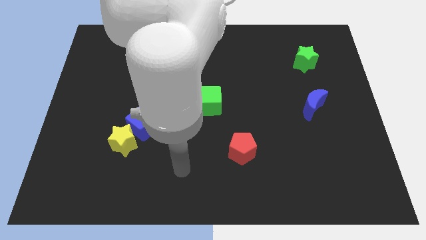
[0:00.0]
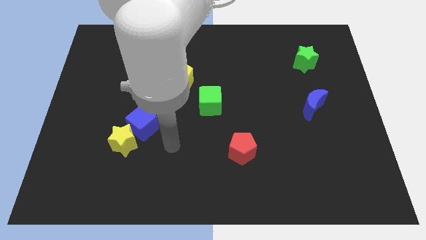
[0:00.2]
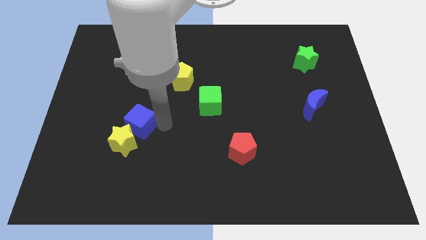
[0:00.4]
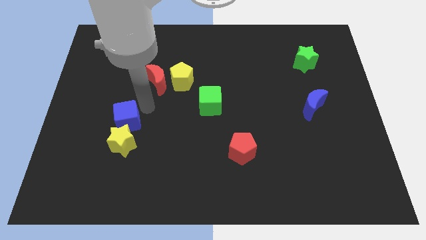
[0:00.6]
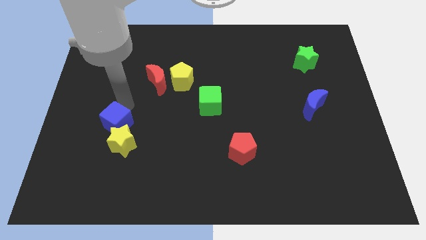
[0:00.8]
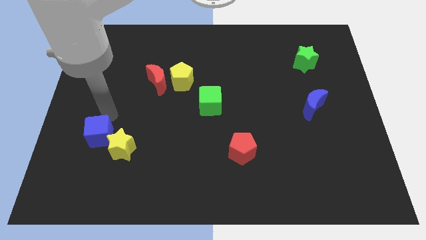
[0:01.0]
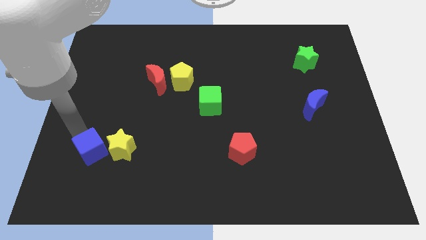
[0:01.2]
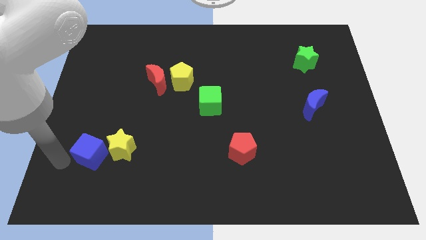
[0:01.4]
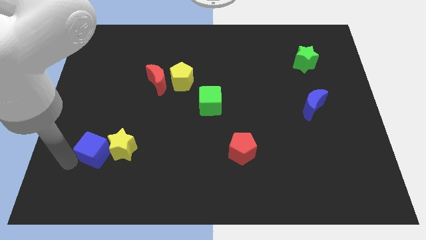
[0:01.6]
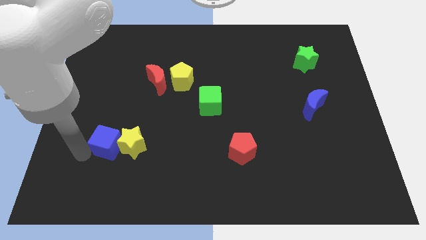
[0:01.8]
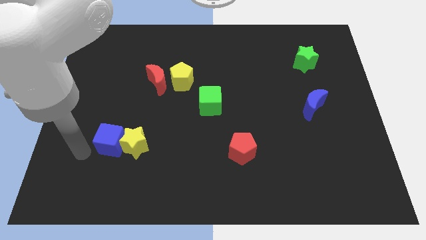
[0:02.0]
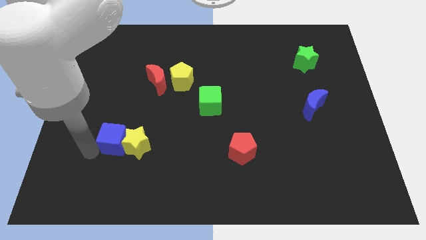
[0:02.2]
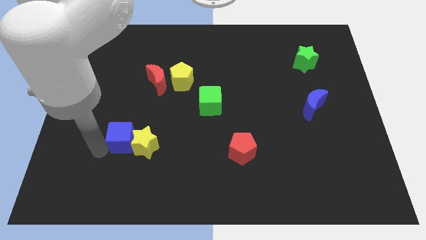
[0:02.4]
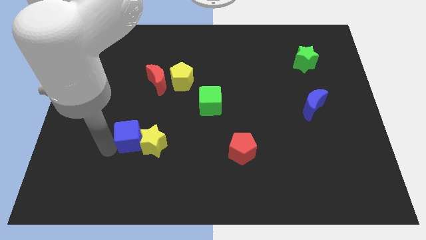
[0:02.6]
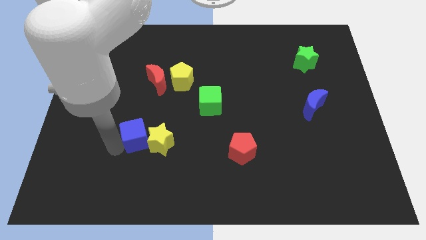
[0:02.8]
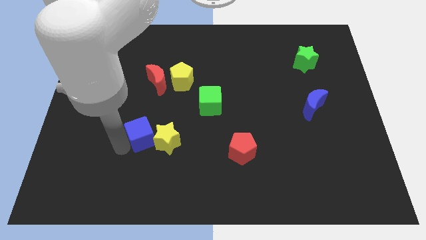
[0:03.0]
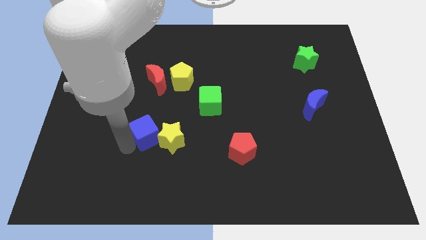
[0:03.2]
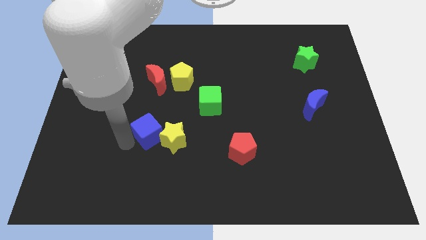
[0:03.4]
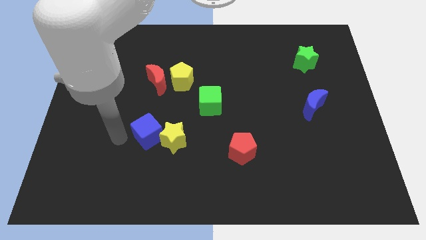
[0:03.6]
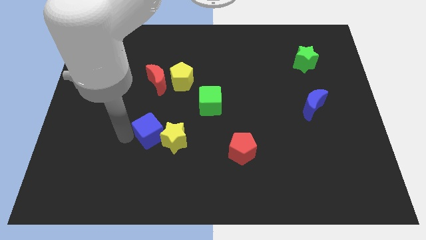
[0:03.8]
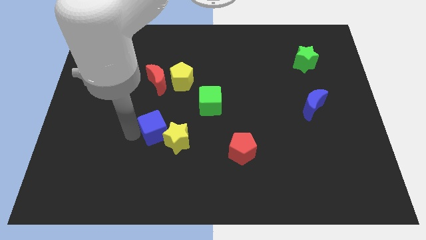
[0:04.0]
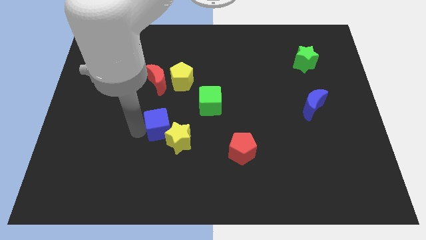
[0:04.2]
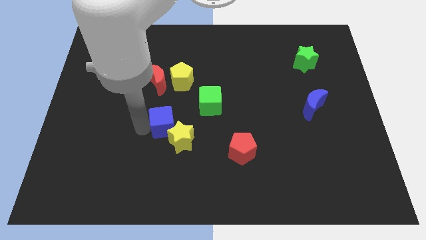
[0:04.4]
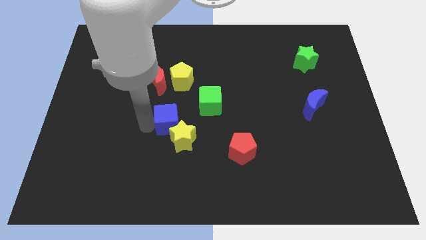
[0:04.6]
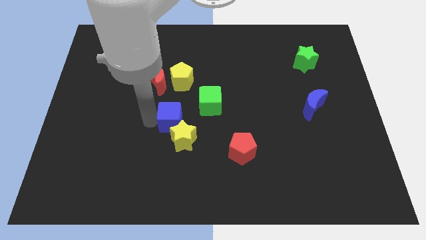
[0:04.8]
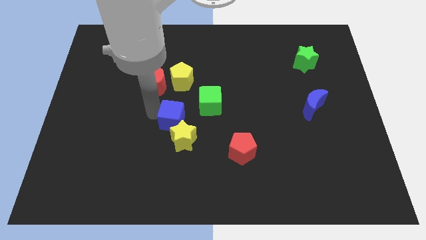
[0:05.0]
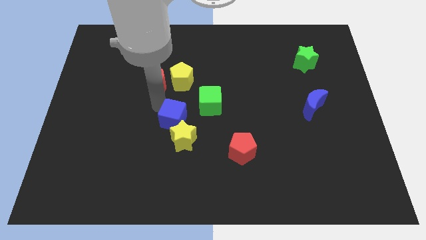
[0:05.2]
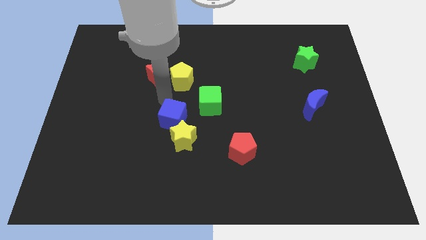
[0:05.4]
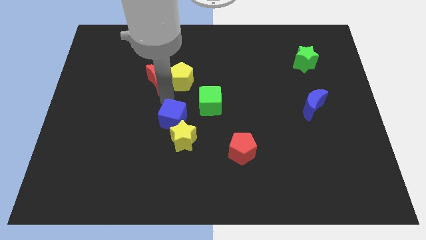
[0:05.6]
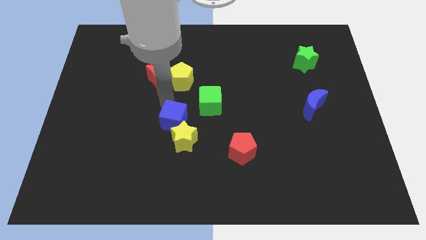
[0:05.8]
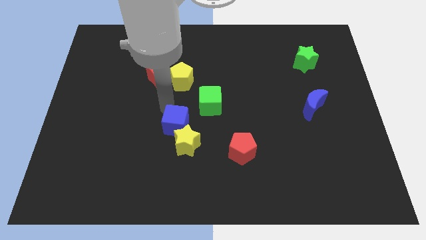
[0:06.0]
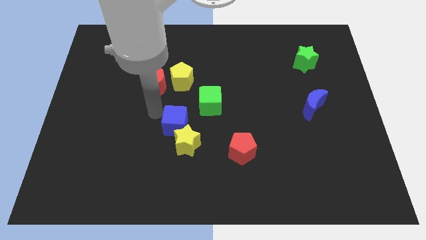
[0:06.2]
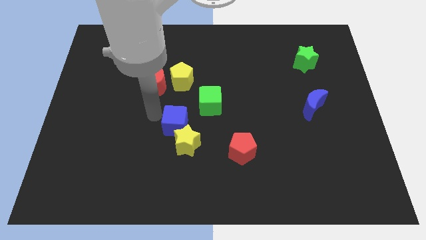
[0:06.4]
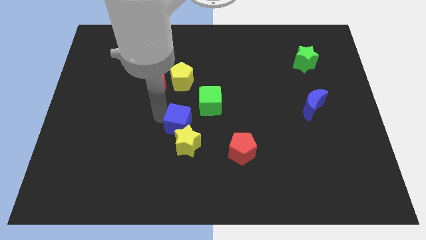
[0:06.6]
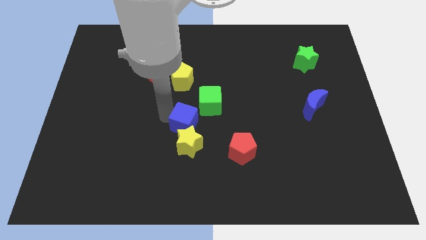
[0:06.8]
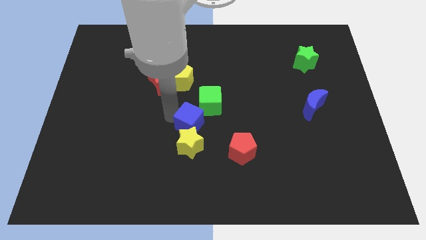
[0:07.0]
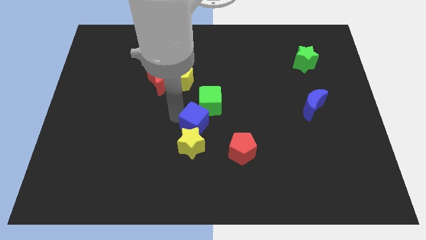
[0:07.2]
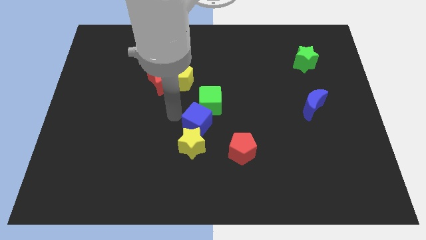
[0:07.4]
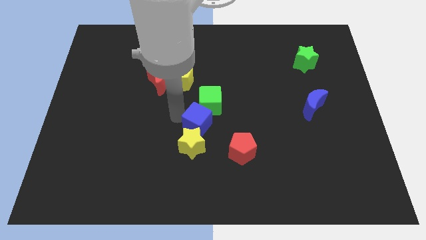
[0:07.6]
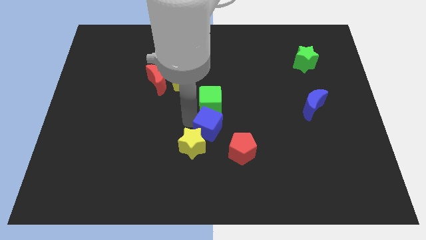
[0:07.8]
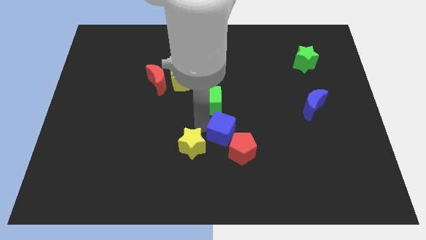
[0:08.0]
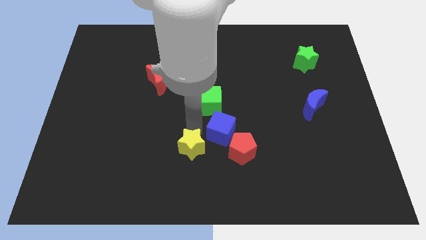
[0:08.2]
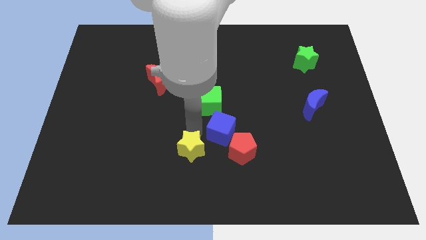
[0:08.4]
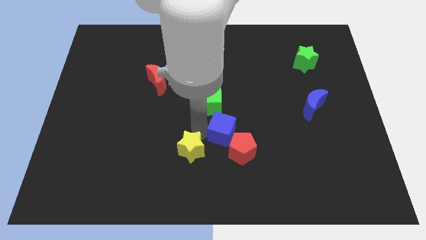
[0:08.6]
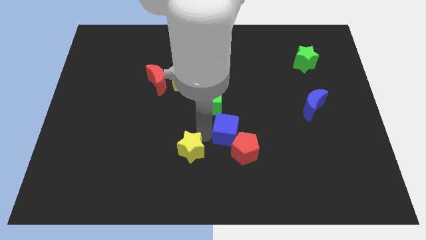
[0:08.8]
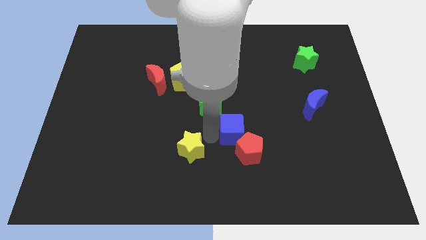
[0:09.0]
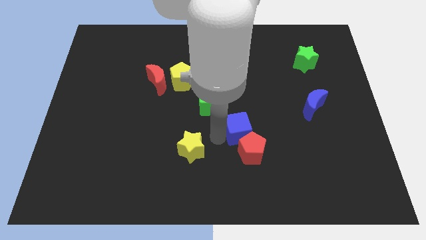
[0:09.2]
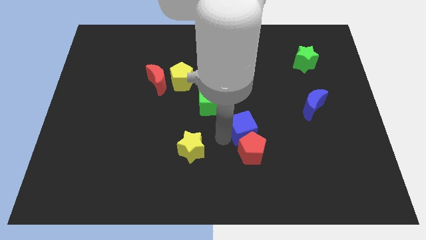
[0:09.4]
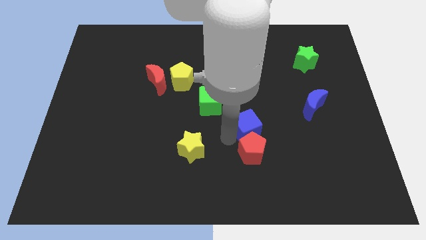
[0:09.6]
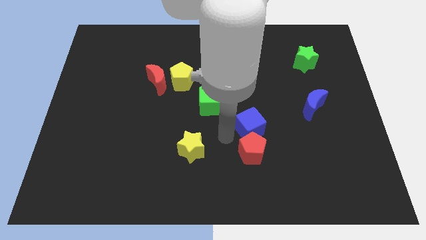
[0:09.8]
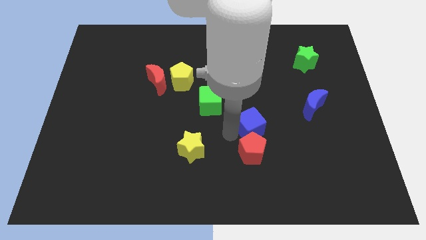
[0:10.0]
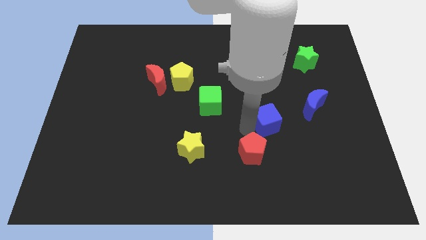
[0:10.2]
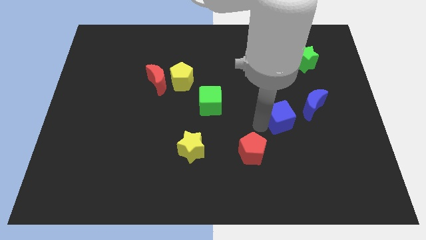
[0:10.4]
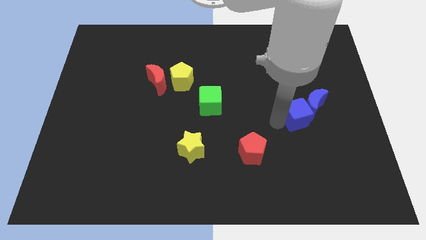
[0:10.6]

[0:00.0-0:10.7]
move the blue cube next to the blue moon

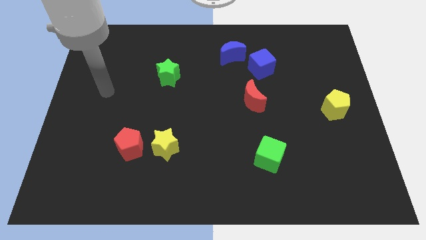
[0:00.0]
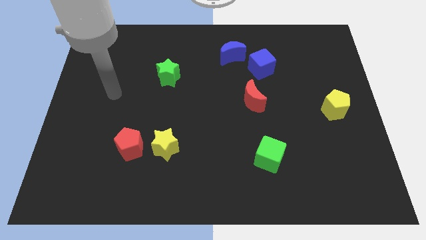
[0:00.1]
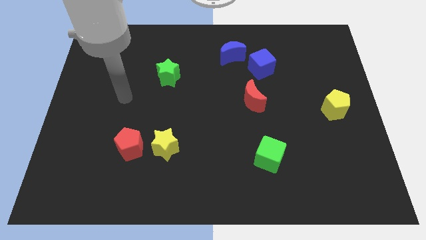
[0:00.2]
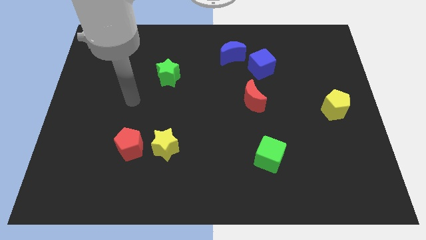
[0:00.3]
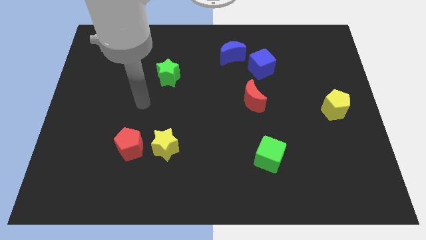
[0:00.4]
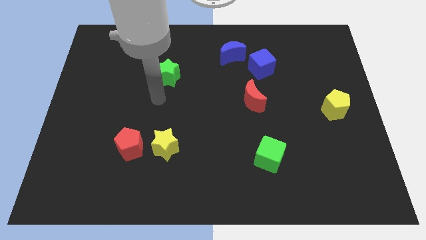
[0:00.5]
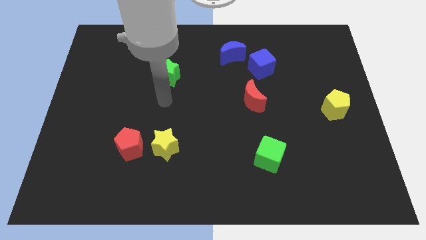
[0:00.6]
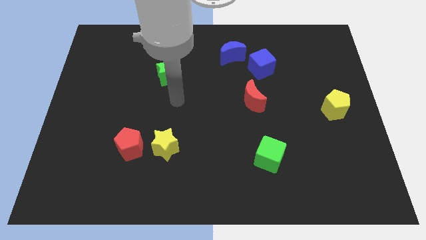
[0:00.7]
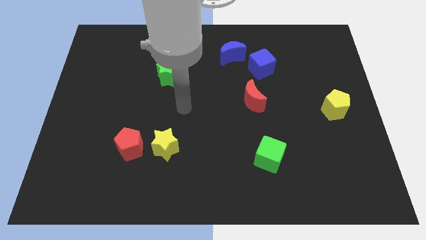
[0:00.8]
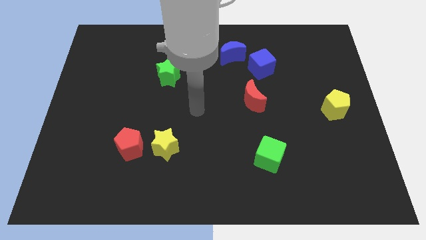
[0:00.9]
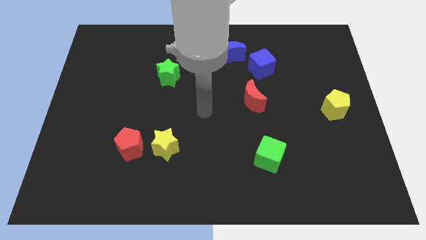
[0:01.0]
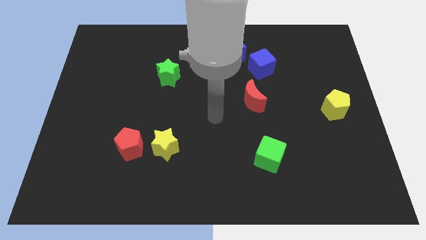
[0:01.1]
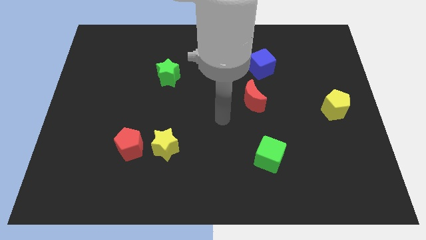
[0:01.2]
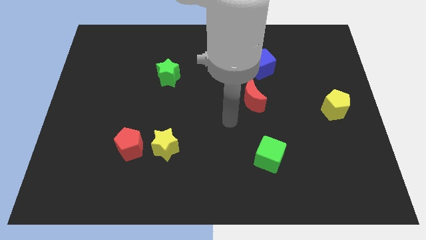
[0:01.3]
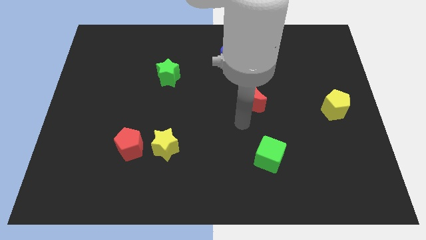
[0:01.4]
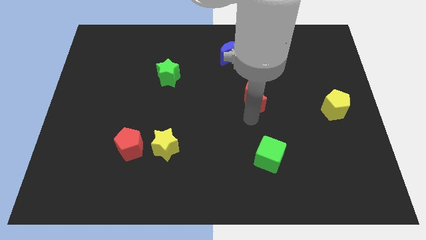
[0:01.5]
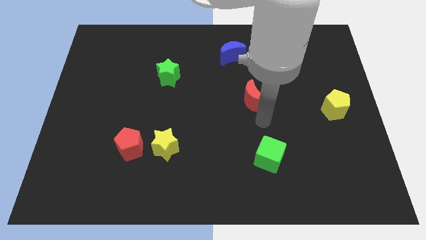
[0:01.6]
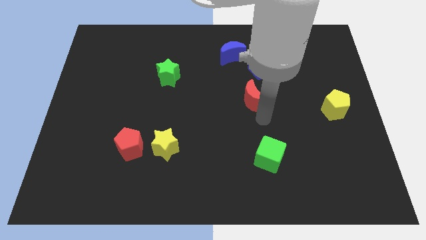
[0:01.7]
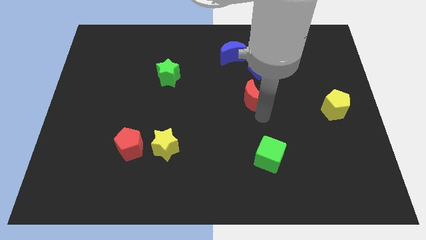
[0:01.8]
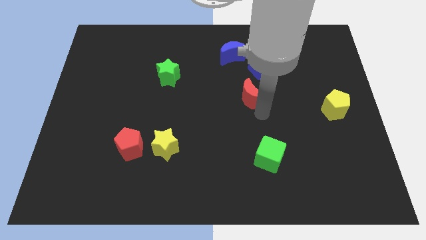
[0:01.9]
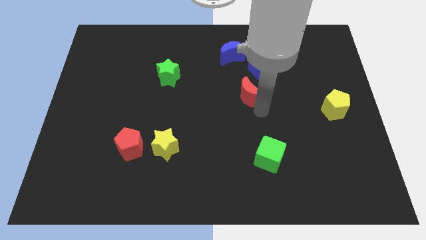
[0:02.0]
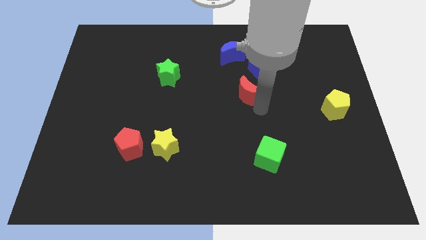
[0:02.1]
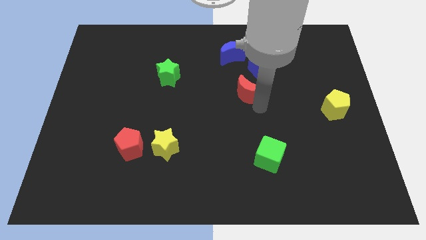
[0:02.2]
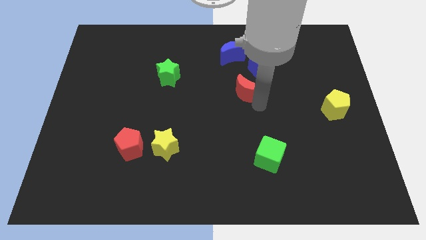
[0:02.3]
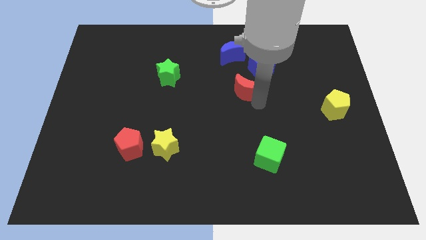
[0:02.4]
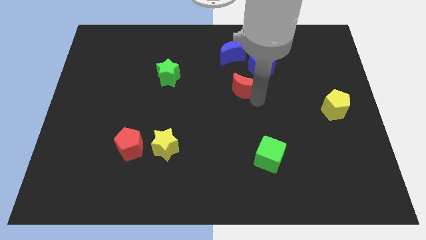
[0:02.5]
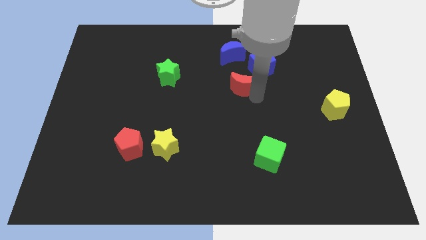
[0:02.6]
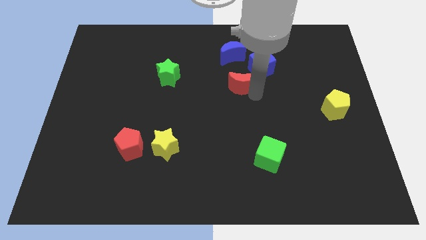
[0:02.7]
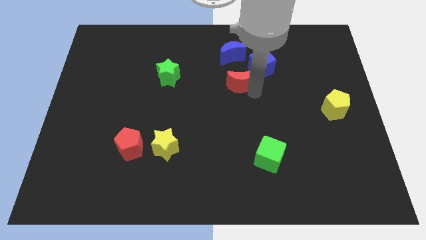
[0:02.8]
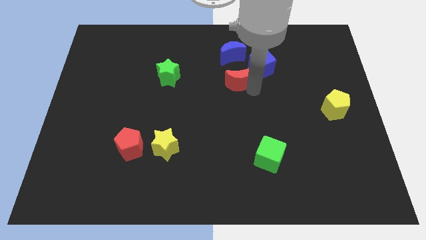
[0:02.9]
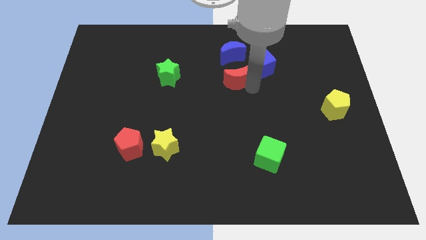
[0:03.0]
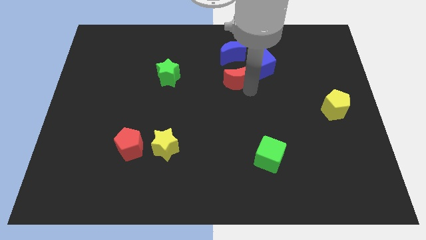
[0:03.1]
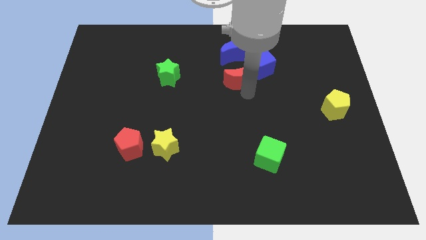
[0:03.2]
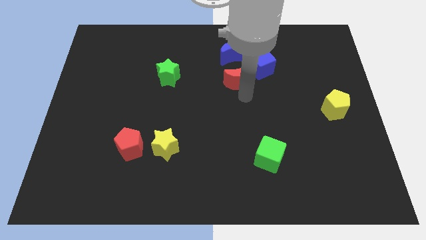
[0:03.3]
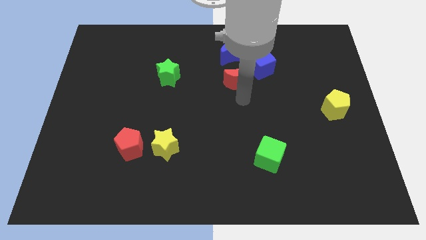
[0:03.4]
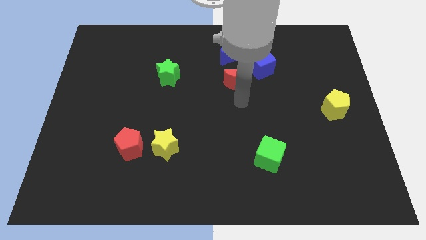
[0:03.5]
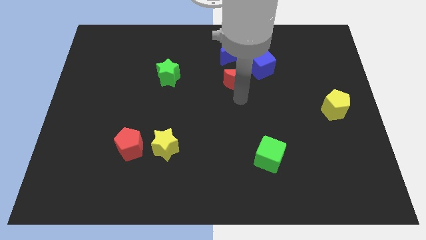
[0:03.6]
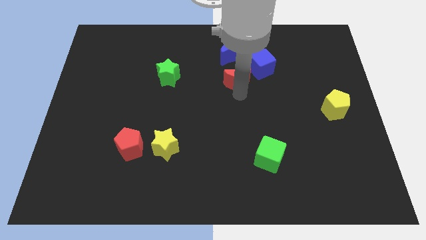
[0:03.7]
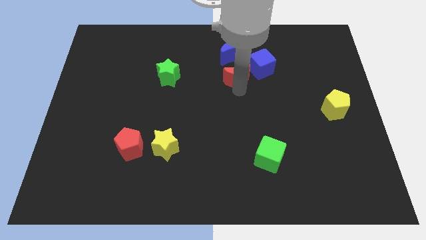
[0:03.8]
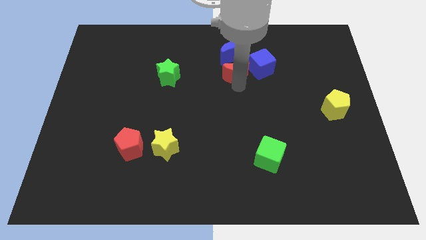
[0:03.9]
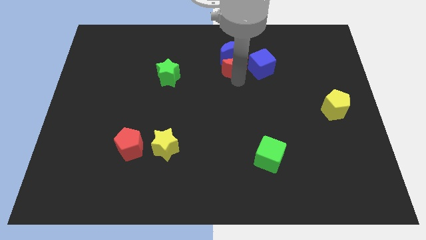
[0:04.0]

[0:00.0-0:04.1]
put the red moon next to the blue moon
